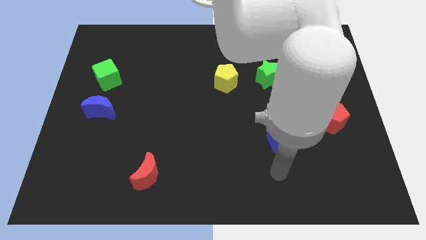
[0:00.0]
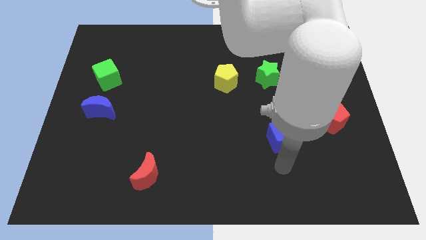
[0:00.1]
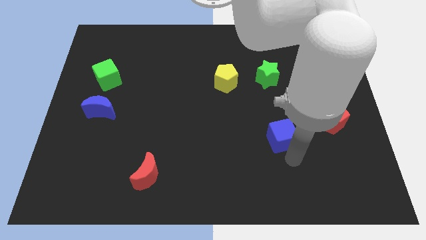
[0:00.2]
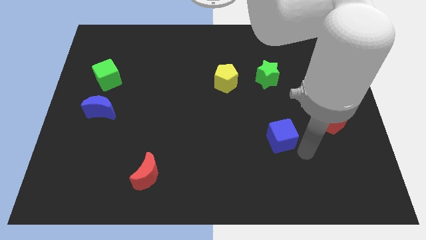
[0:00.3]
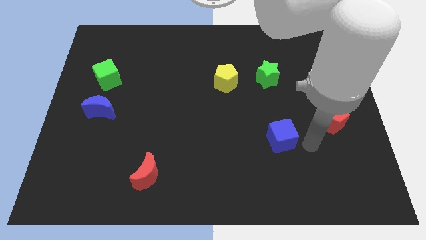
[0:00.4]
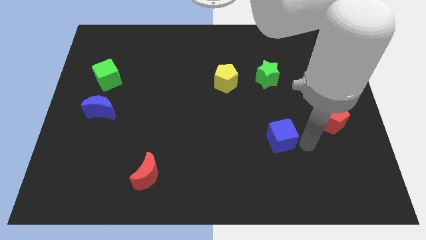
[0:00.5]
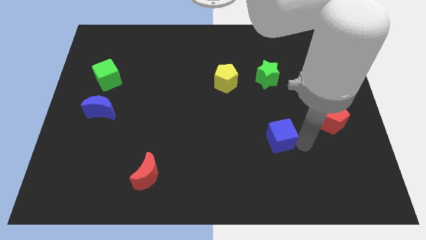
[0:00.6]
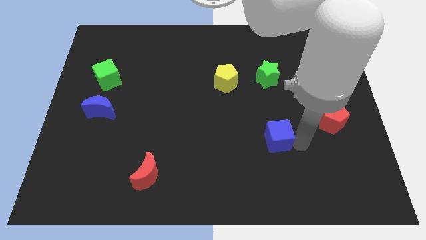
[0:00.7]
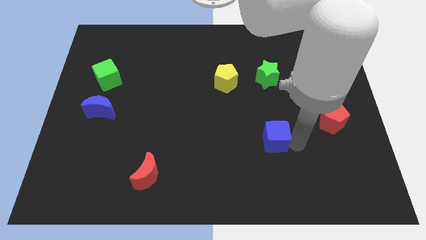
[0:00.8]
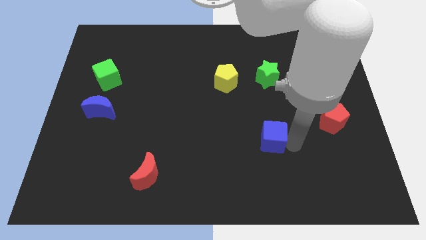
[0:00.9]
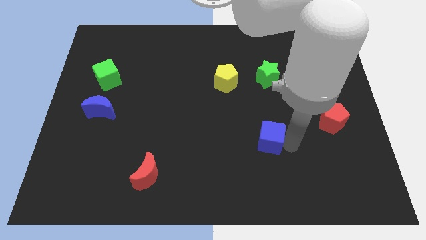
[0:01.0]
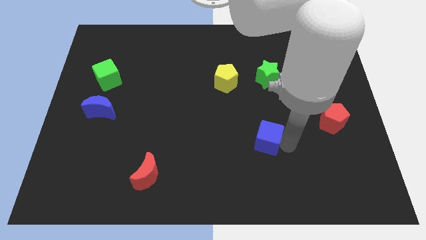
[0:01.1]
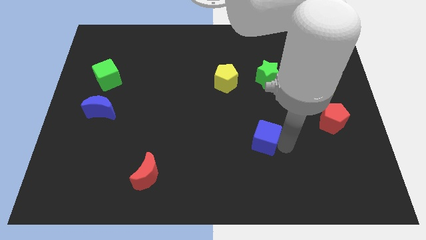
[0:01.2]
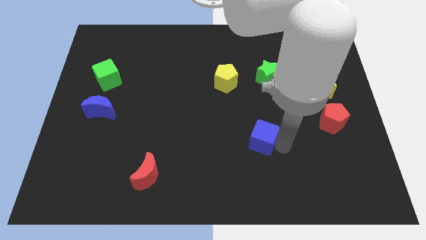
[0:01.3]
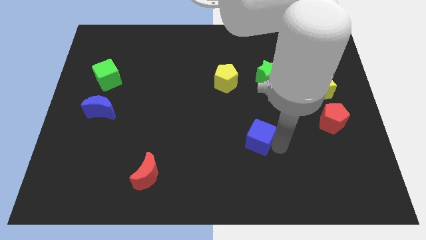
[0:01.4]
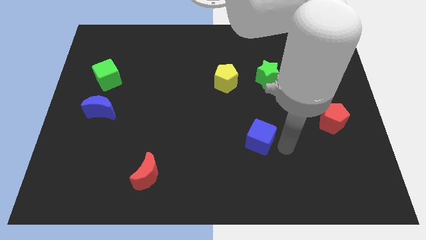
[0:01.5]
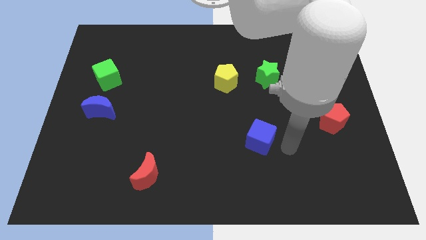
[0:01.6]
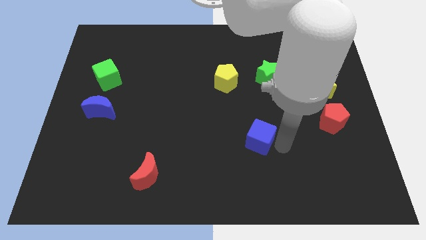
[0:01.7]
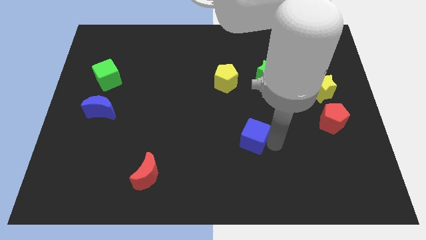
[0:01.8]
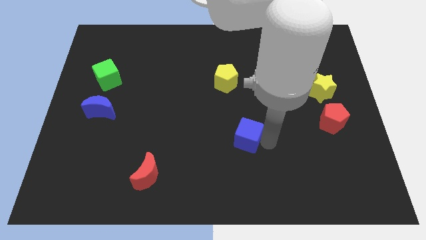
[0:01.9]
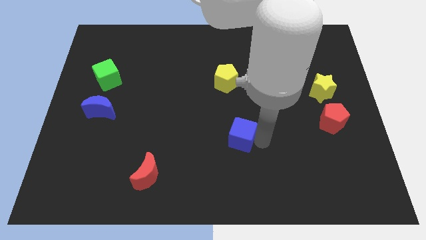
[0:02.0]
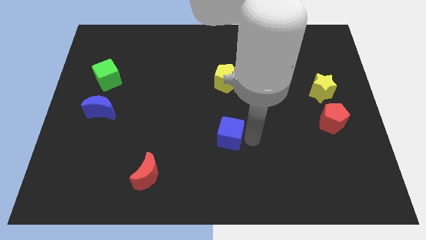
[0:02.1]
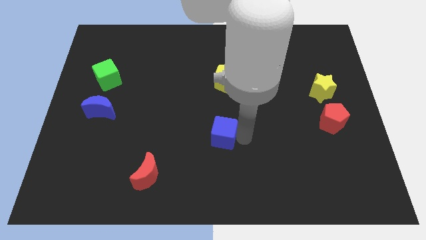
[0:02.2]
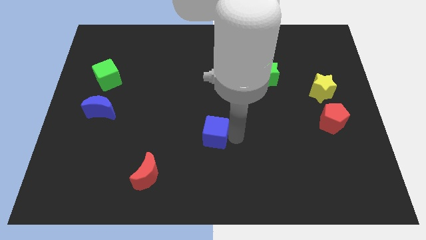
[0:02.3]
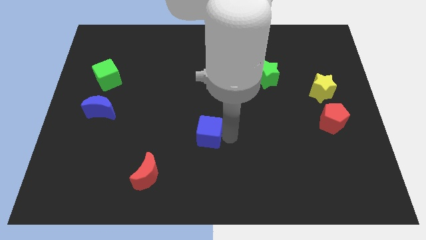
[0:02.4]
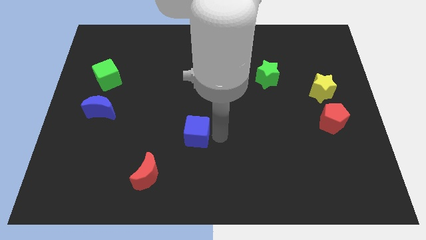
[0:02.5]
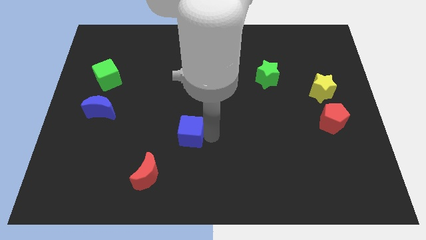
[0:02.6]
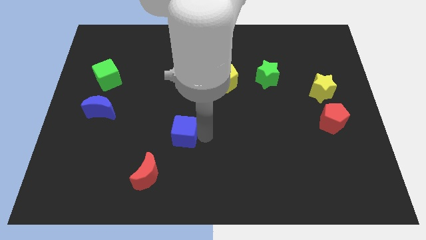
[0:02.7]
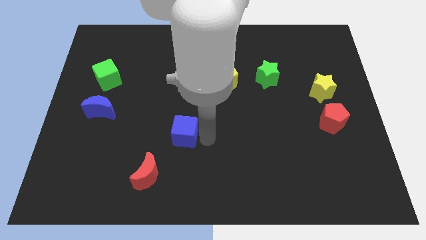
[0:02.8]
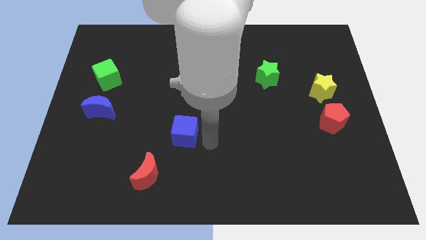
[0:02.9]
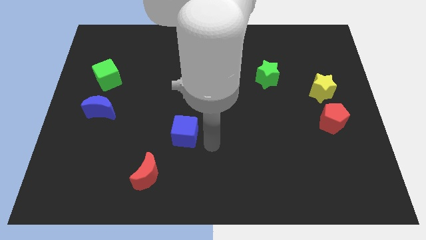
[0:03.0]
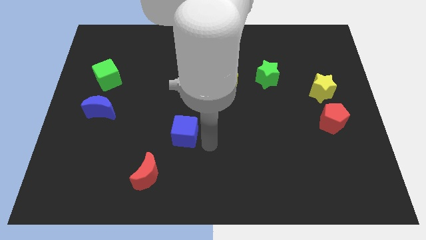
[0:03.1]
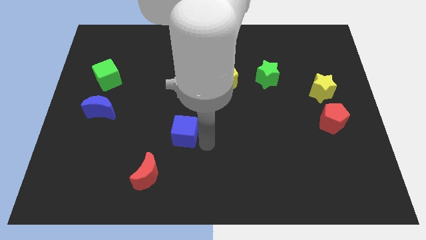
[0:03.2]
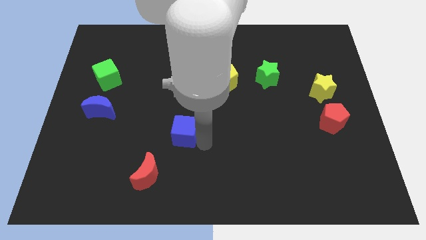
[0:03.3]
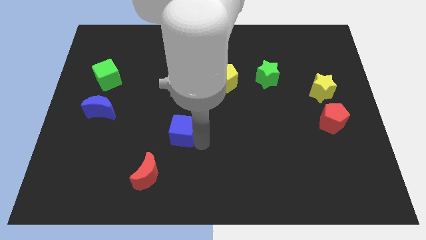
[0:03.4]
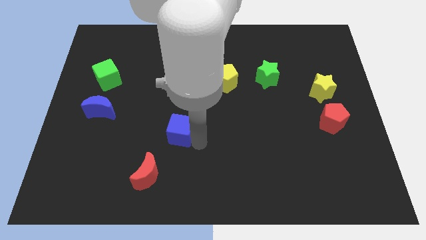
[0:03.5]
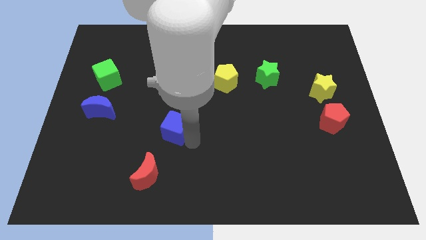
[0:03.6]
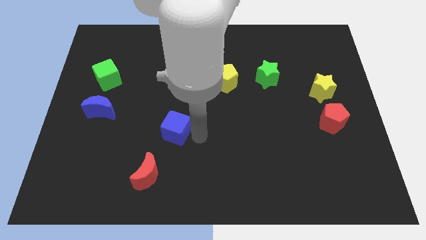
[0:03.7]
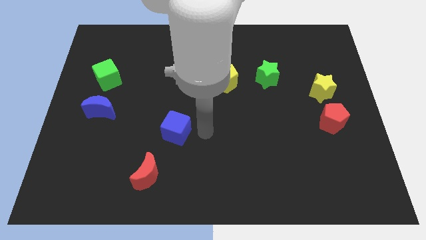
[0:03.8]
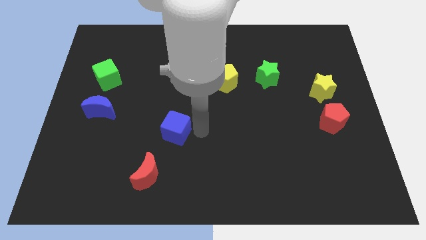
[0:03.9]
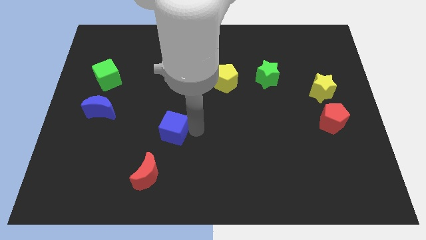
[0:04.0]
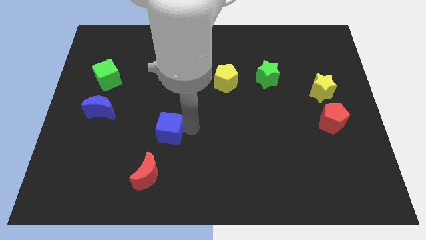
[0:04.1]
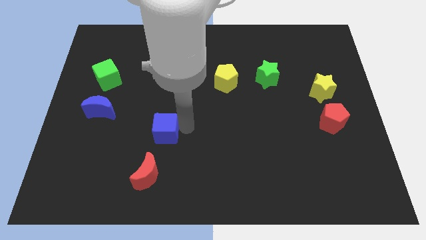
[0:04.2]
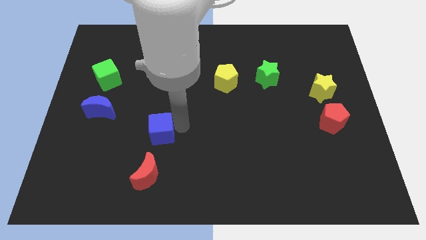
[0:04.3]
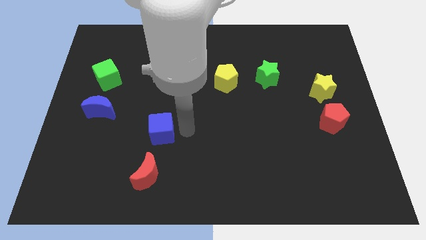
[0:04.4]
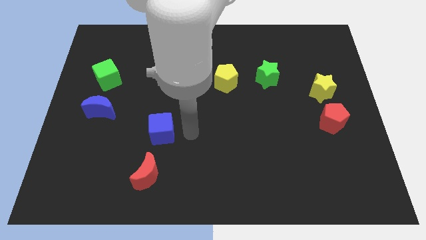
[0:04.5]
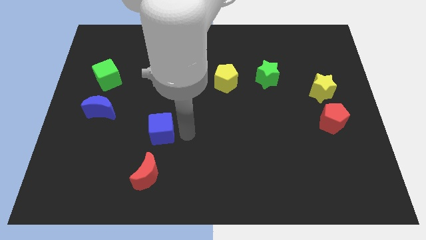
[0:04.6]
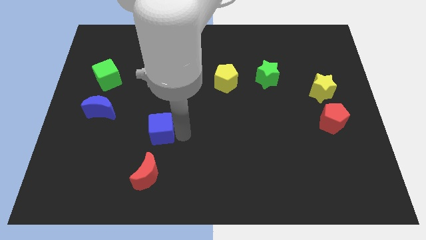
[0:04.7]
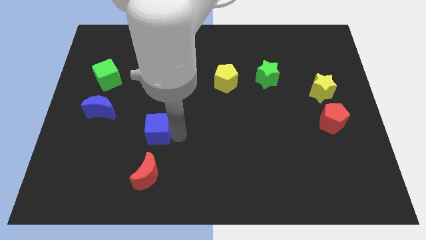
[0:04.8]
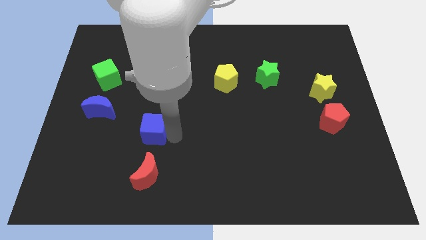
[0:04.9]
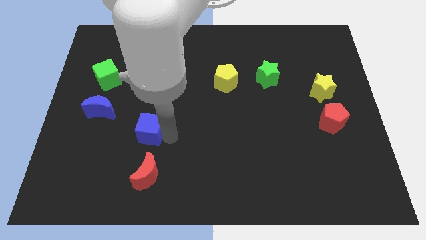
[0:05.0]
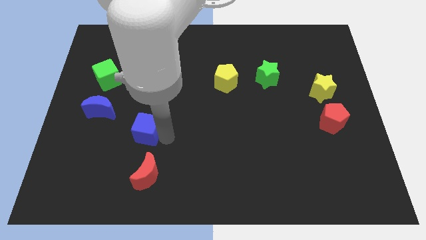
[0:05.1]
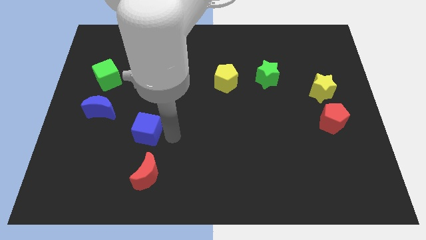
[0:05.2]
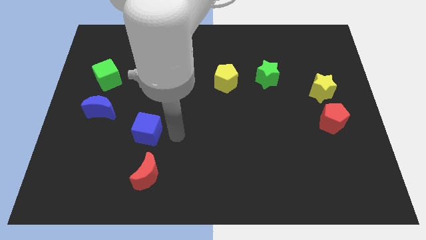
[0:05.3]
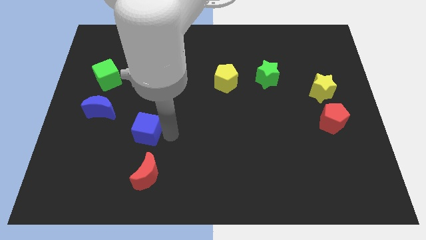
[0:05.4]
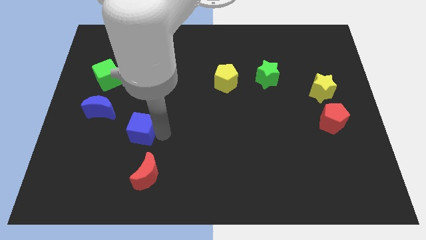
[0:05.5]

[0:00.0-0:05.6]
slide the blue cube diagonally down and to the right of the blue moon

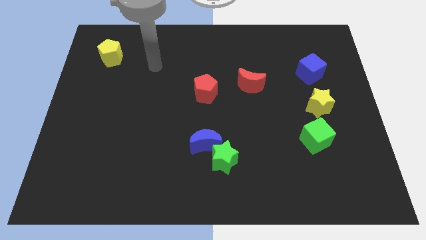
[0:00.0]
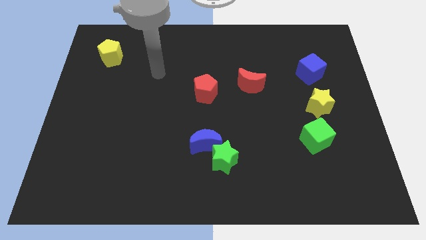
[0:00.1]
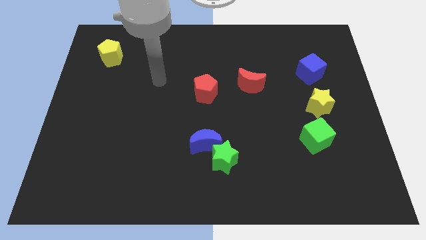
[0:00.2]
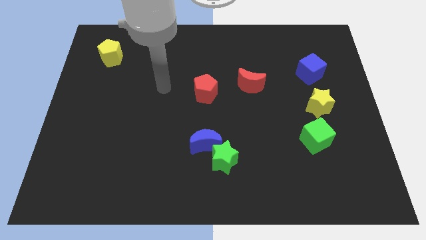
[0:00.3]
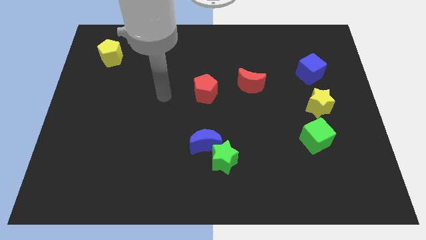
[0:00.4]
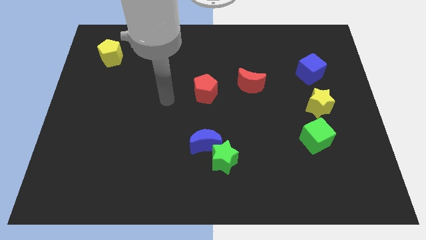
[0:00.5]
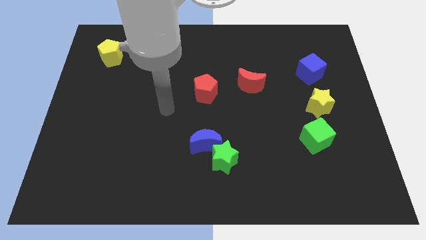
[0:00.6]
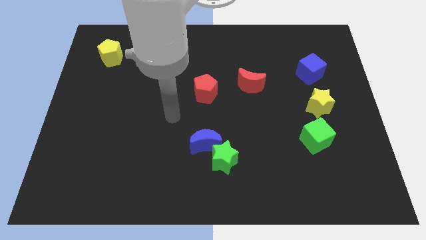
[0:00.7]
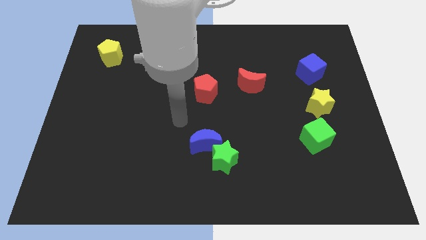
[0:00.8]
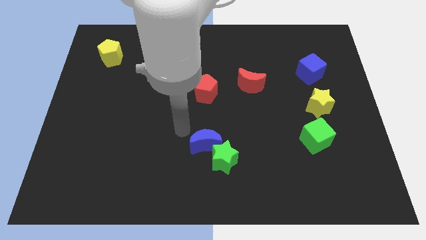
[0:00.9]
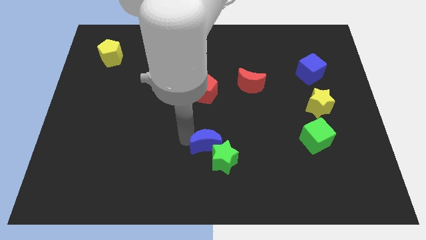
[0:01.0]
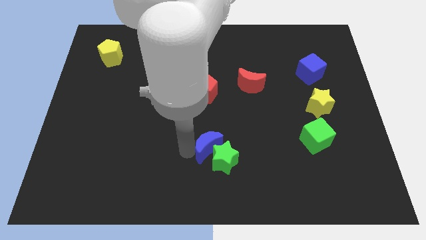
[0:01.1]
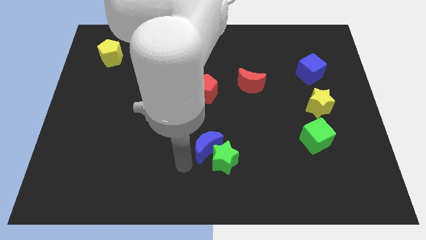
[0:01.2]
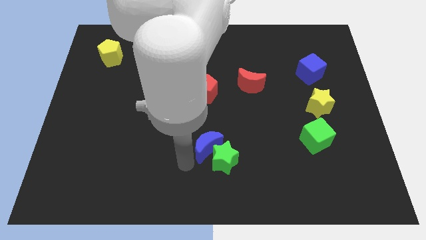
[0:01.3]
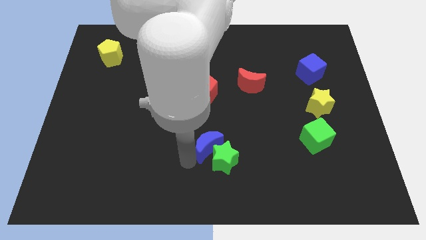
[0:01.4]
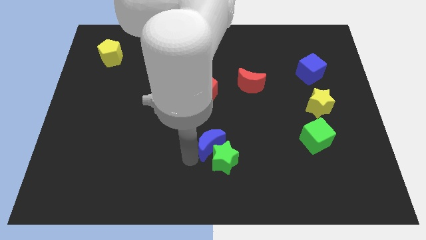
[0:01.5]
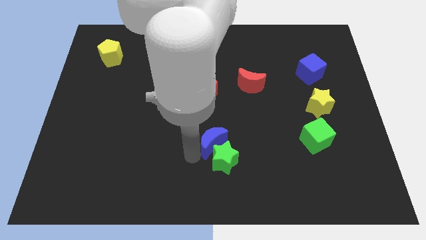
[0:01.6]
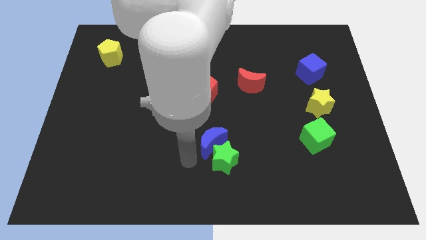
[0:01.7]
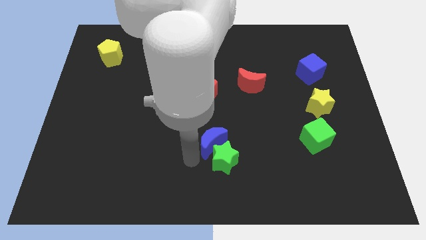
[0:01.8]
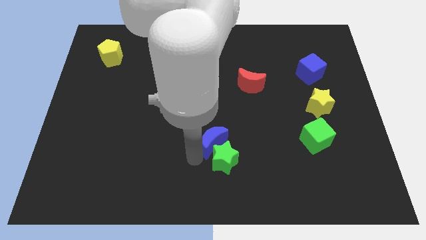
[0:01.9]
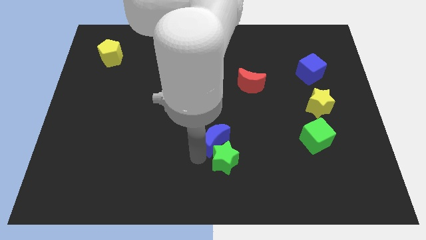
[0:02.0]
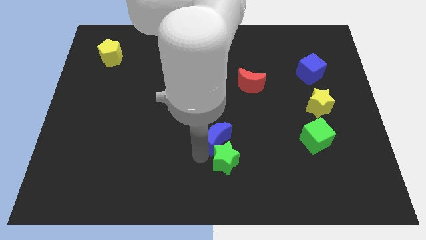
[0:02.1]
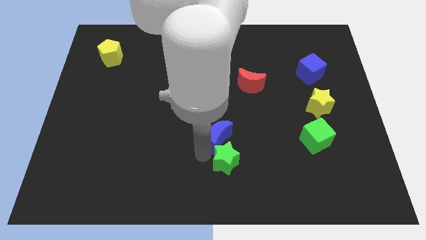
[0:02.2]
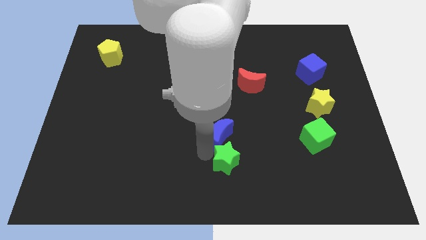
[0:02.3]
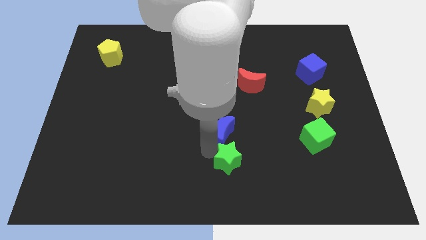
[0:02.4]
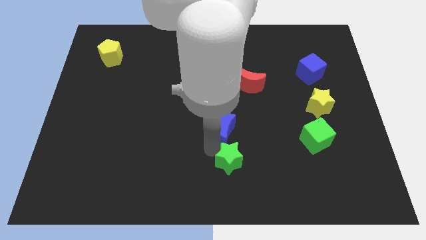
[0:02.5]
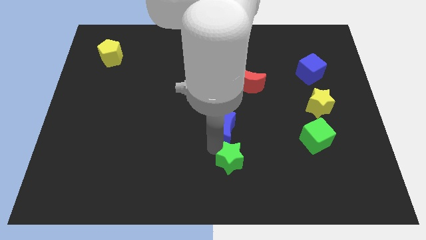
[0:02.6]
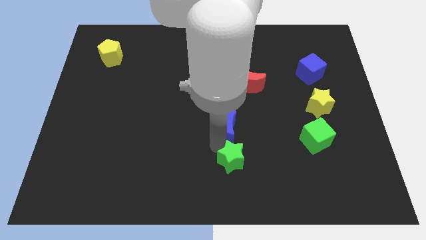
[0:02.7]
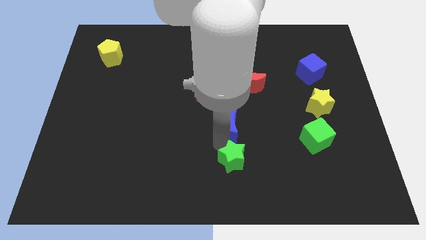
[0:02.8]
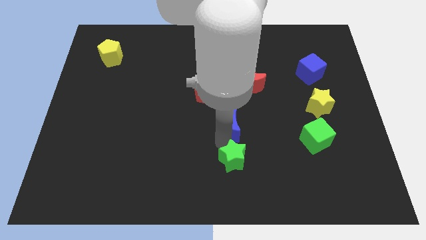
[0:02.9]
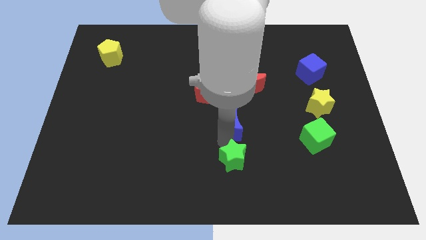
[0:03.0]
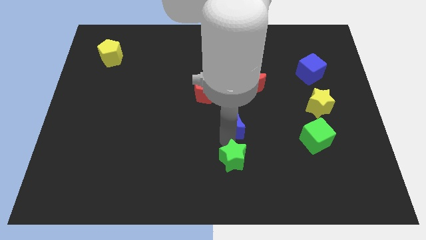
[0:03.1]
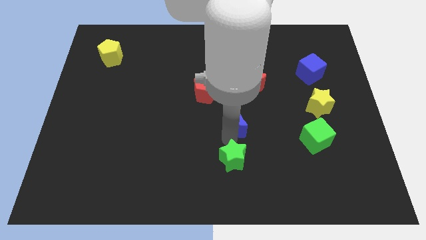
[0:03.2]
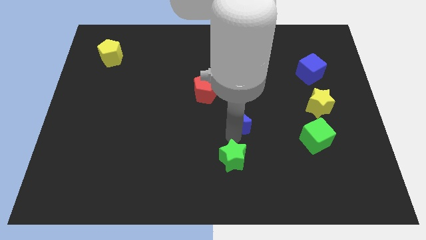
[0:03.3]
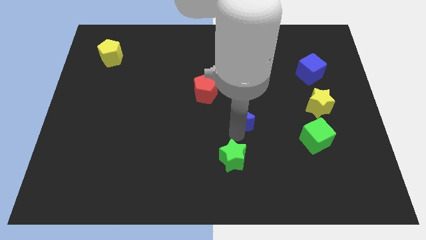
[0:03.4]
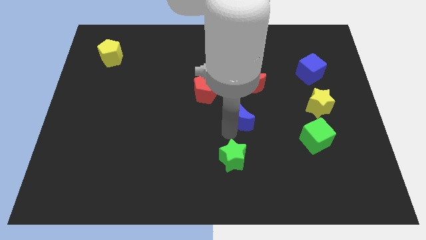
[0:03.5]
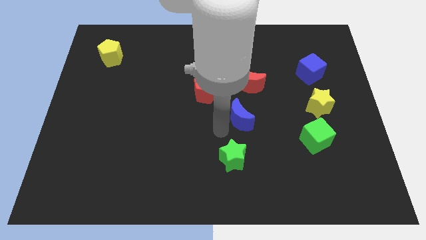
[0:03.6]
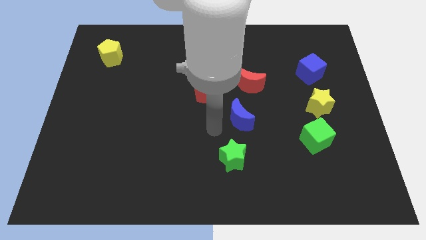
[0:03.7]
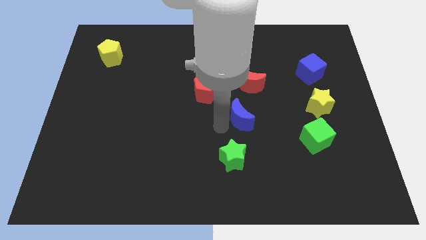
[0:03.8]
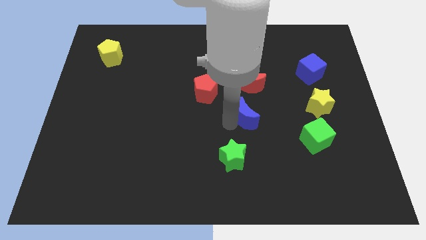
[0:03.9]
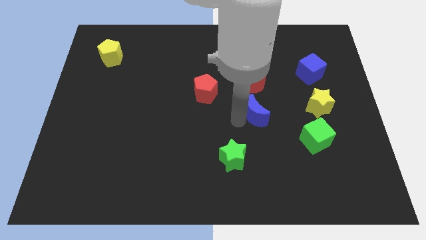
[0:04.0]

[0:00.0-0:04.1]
slide the blue moon to the left side of the yellow star
